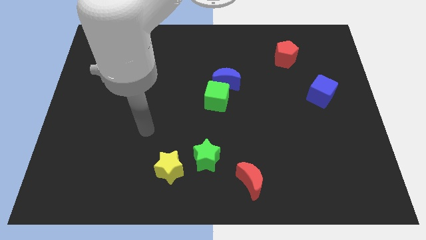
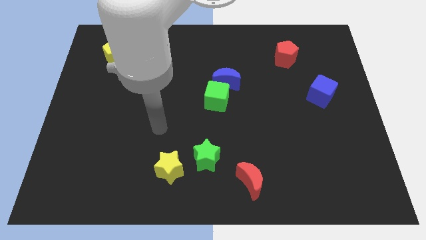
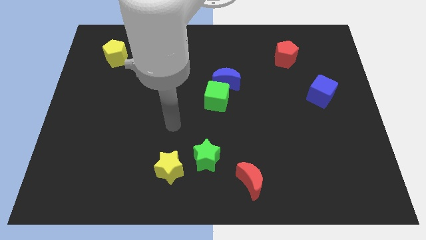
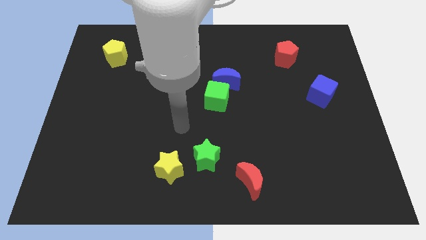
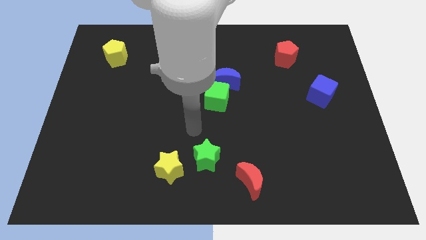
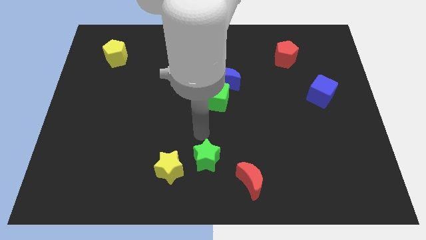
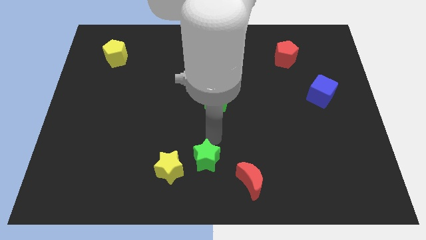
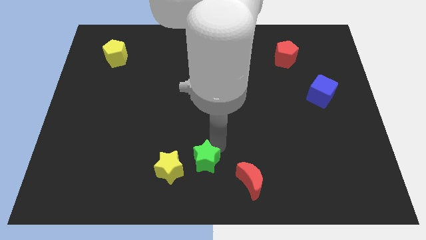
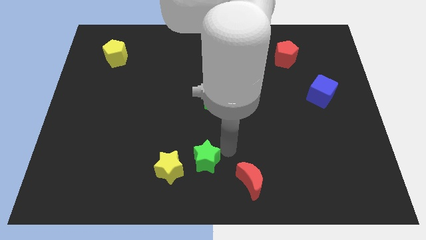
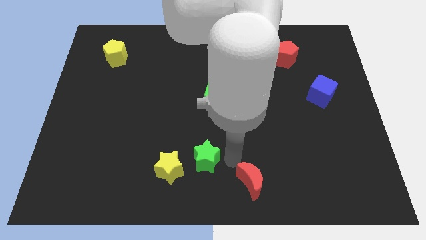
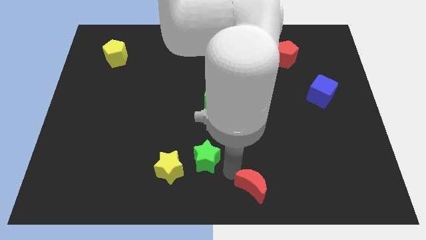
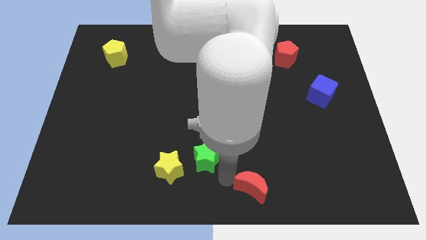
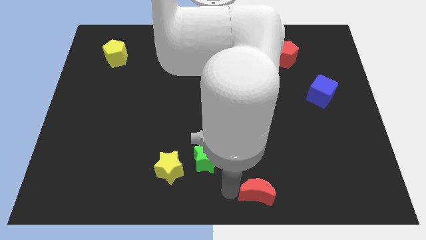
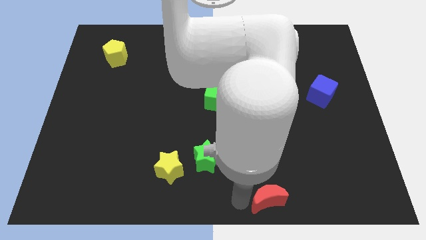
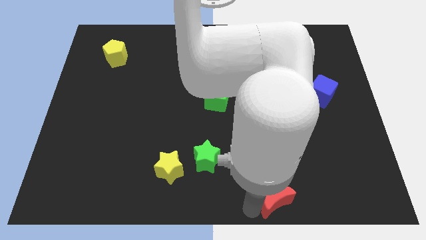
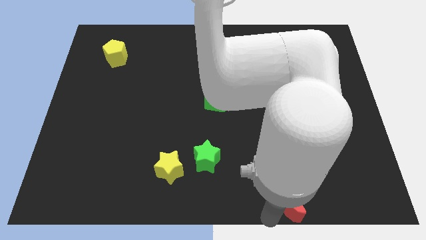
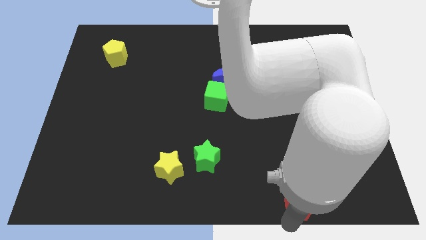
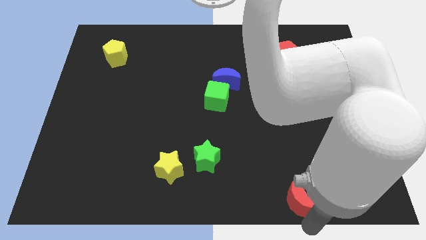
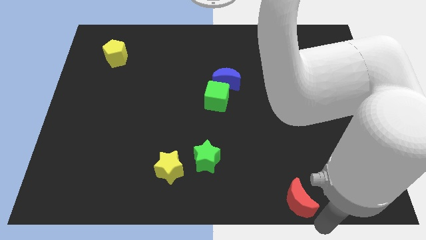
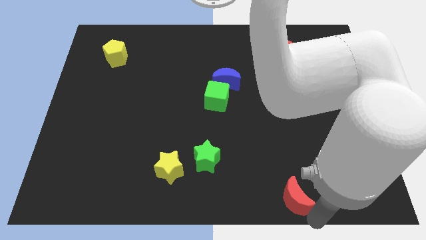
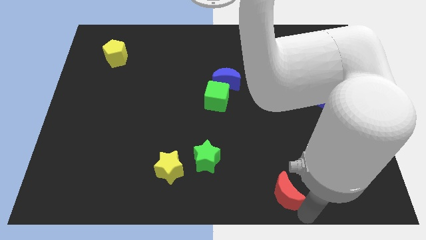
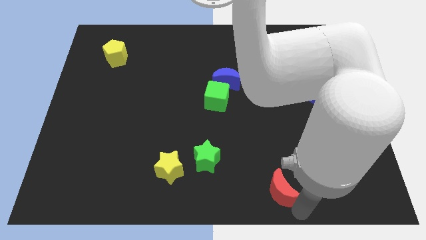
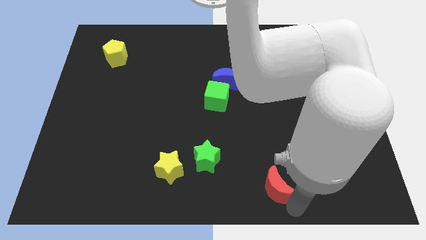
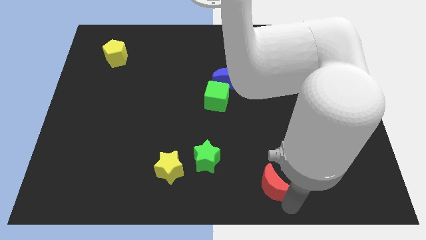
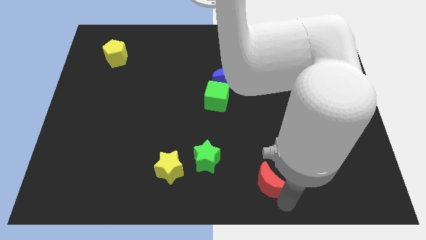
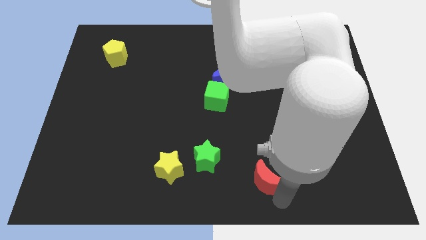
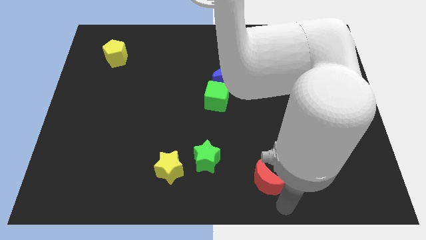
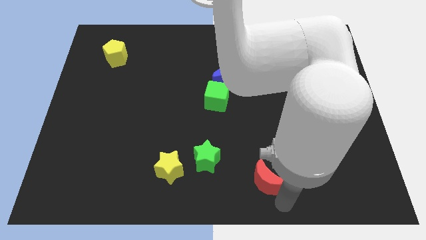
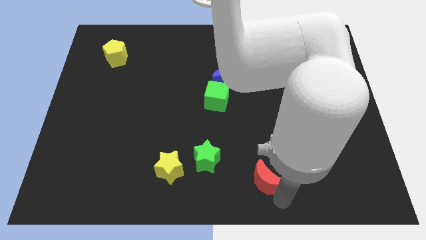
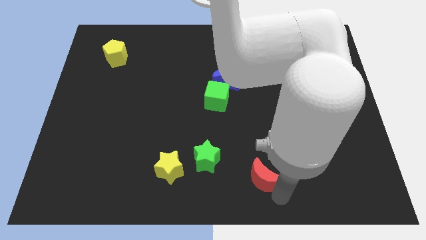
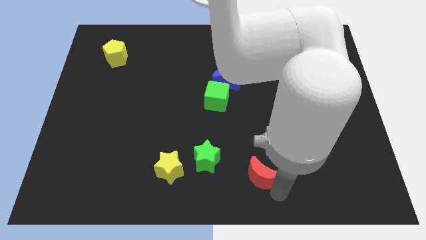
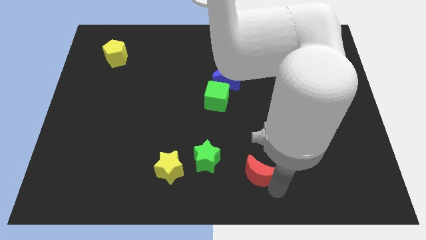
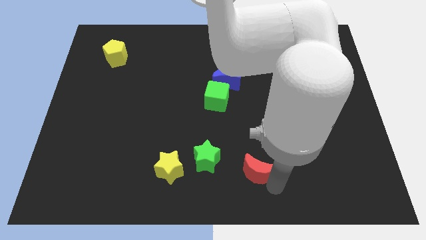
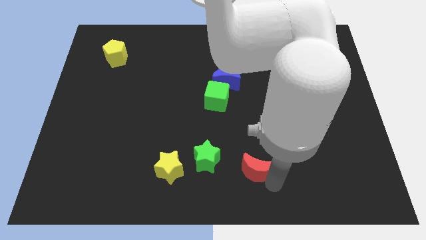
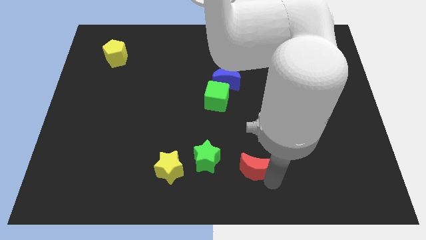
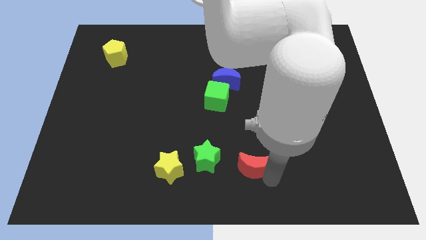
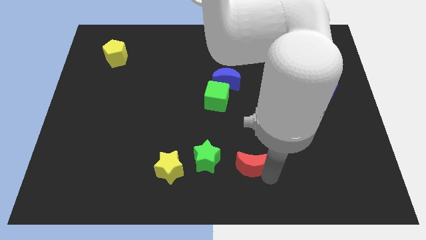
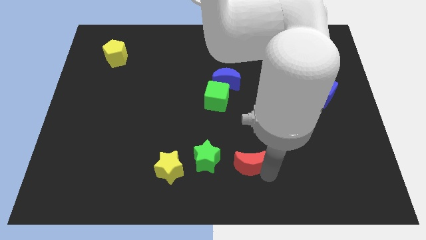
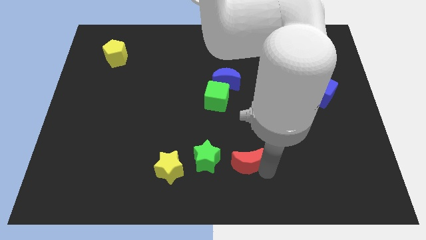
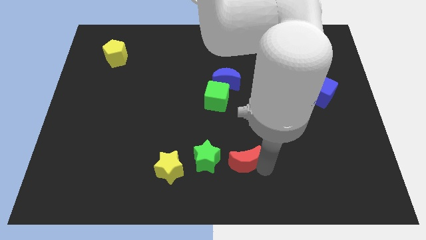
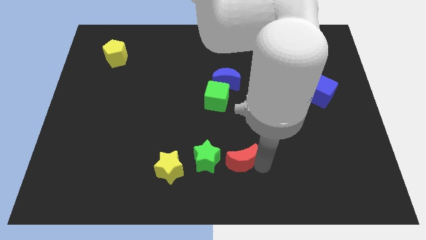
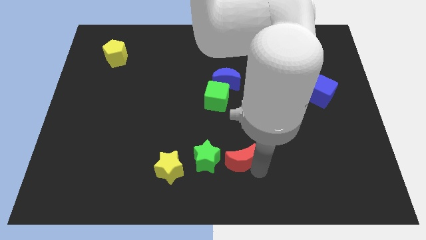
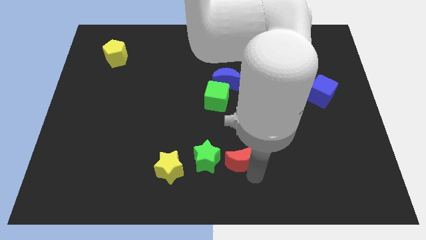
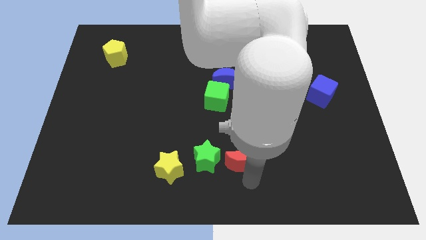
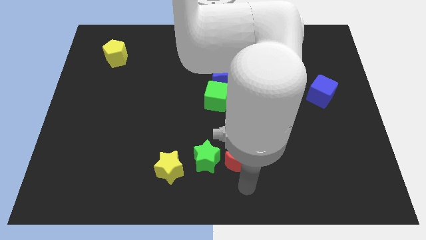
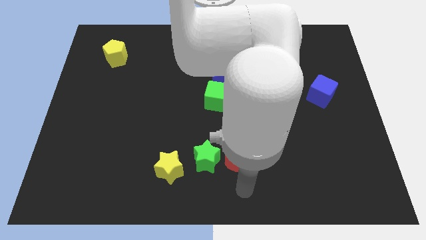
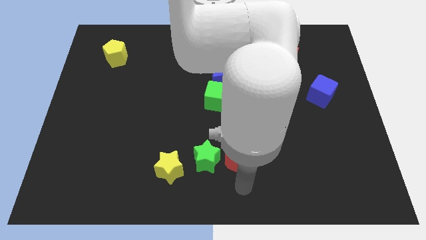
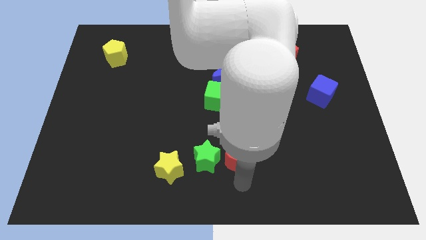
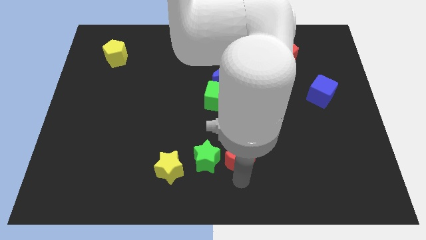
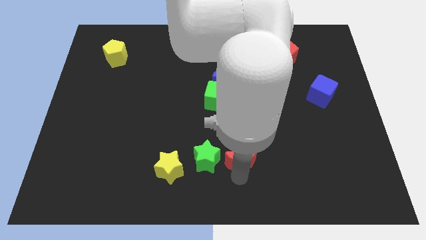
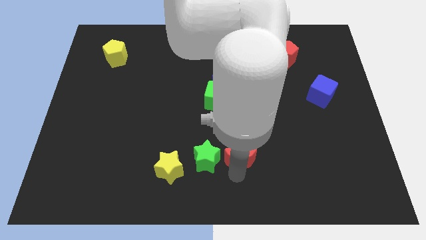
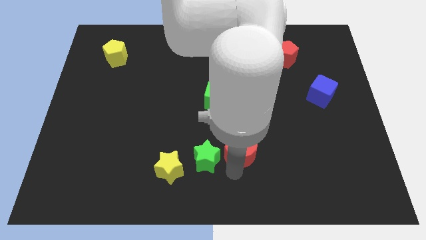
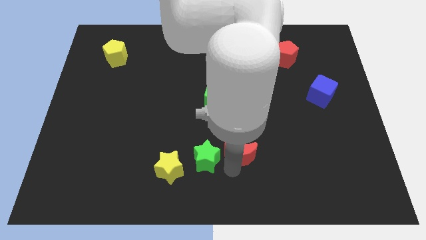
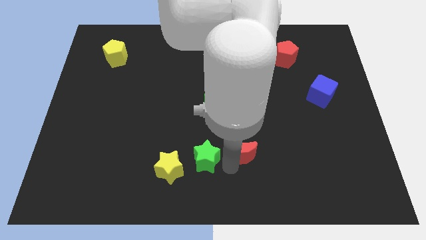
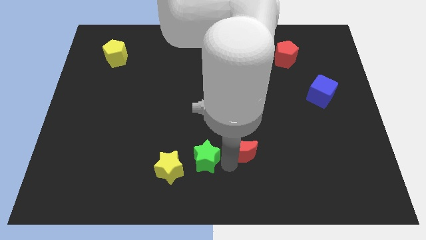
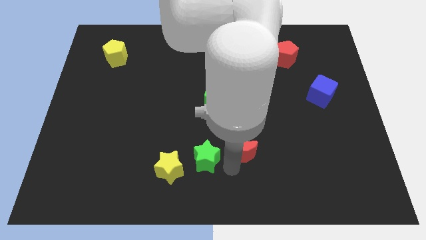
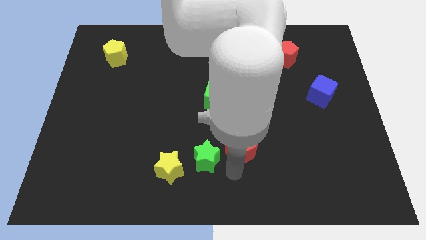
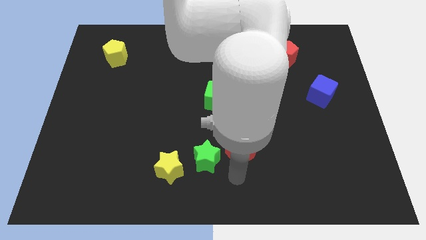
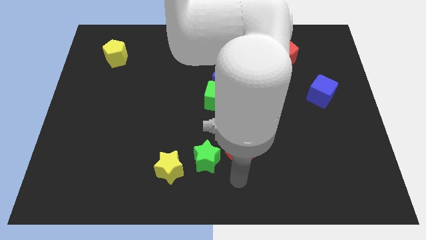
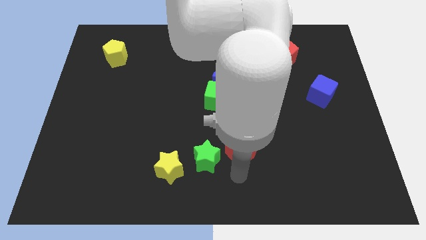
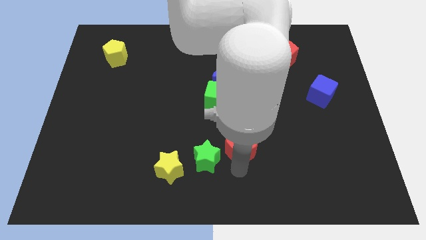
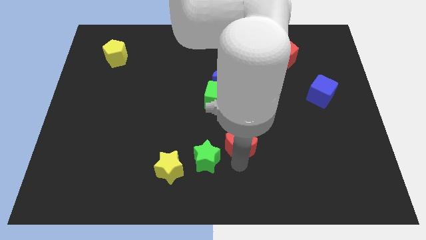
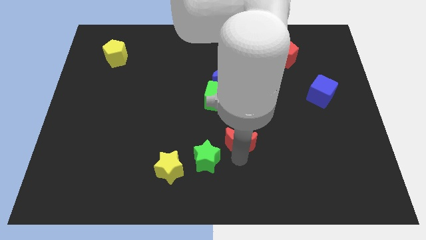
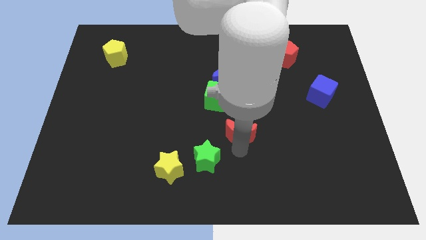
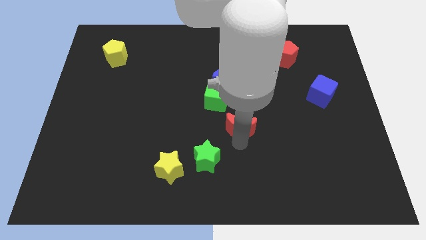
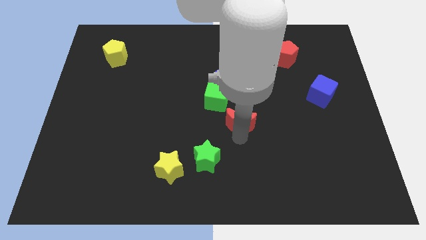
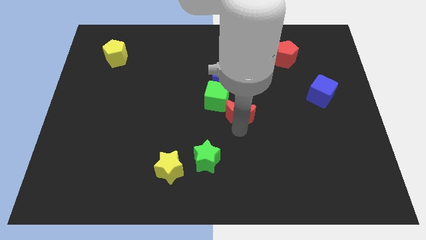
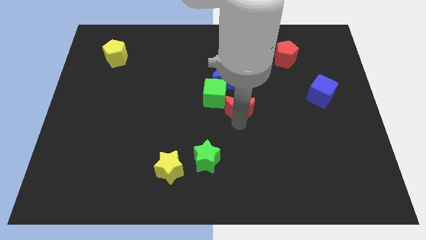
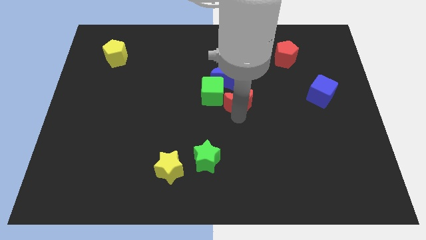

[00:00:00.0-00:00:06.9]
slide the red moon up

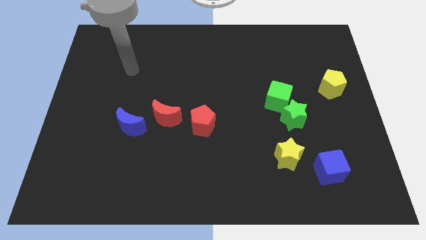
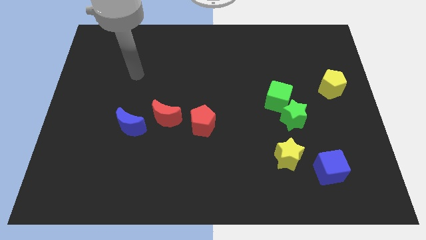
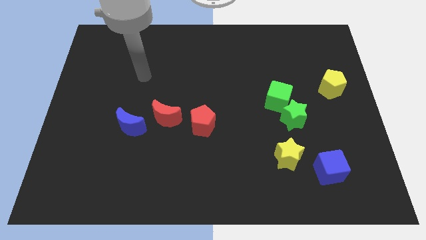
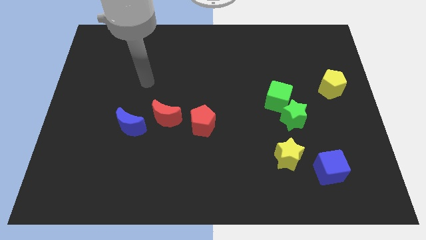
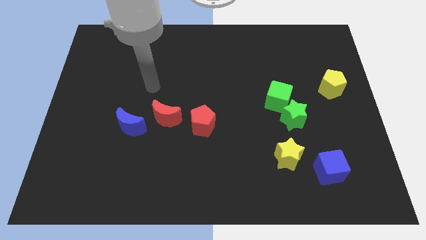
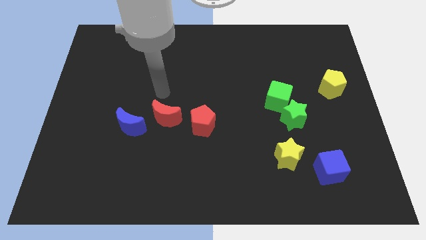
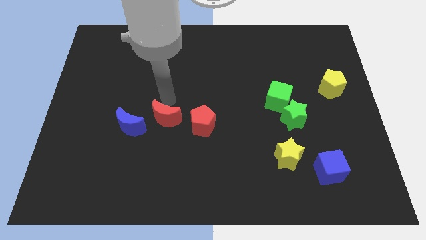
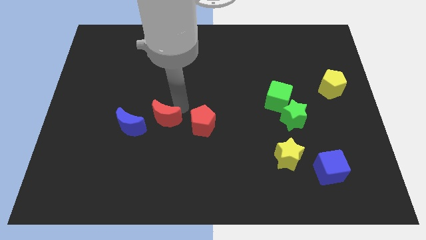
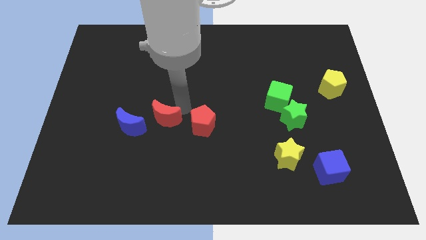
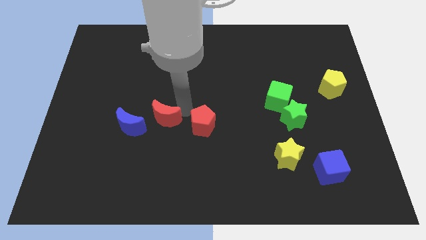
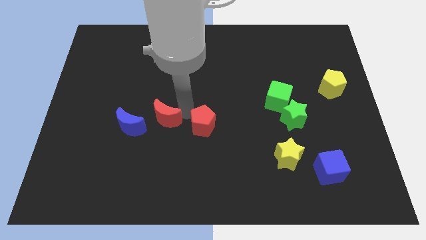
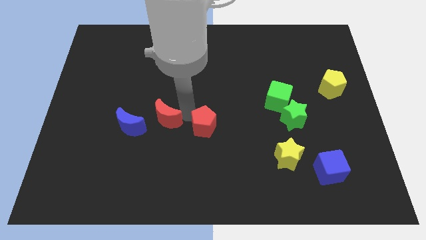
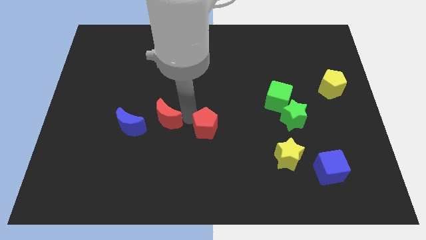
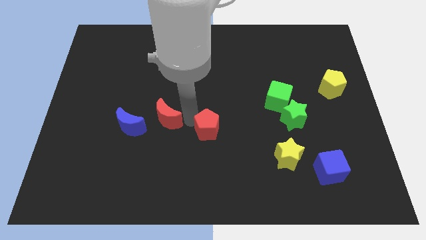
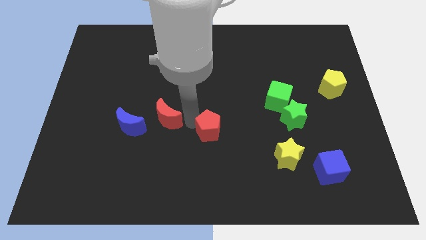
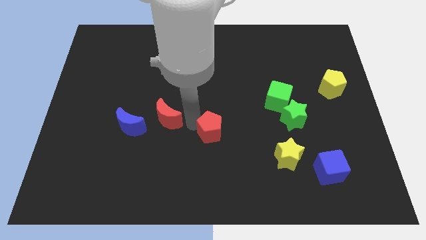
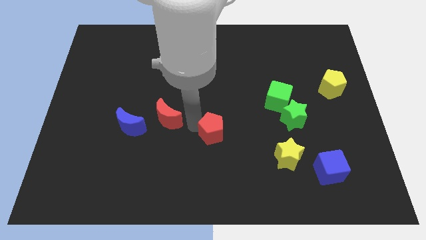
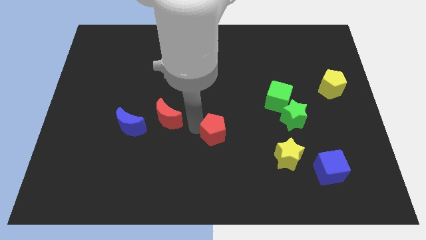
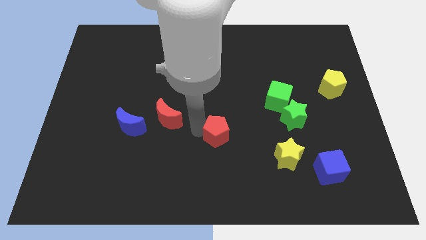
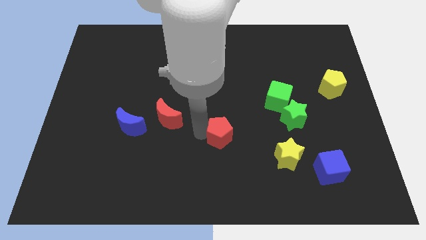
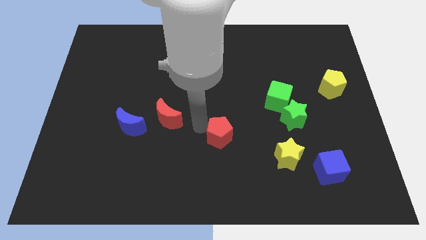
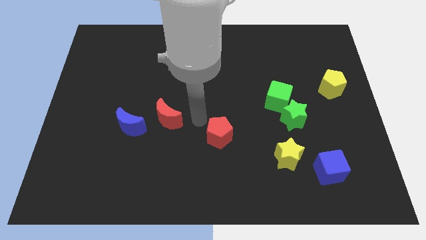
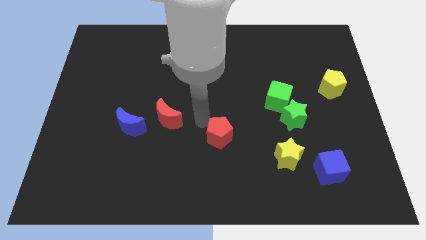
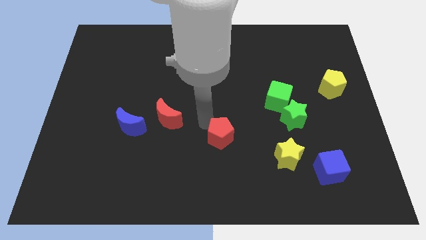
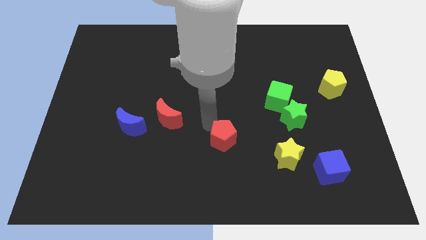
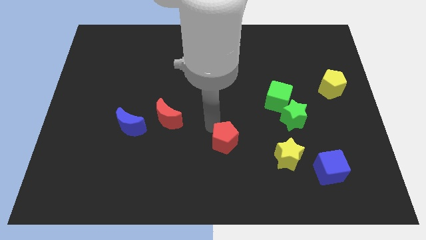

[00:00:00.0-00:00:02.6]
push the red pentagon downwards and right diagonally a little
